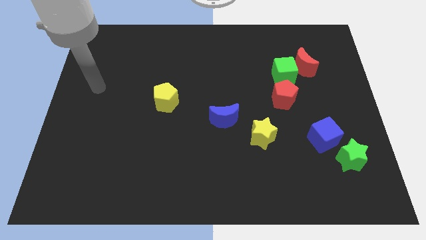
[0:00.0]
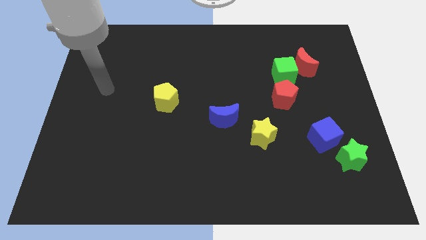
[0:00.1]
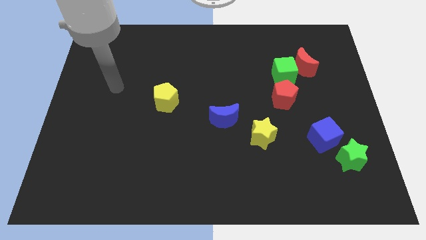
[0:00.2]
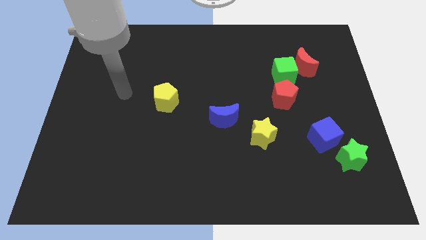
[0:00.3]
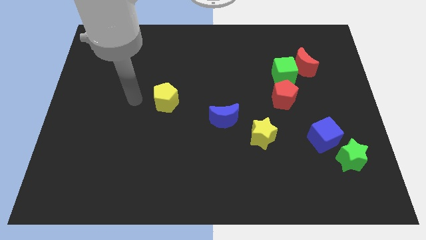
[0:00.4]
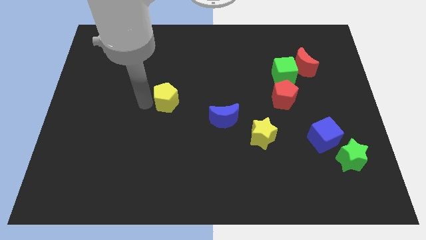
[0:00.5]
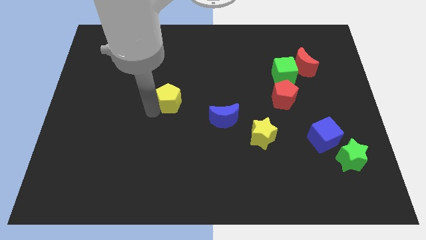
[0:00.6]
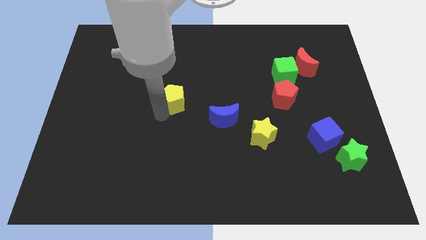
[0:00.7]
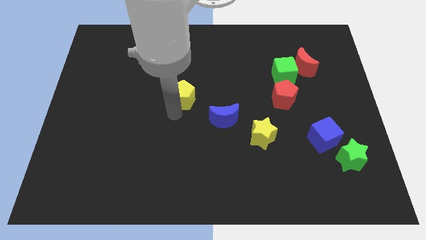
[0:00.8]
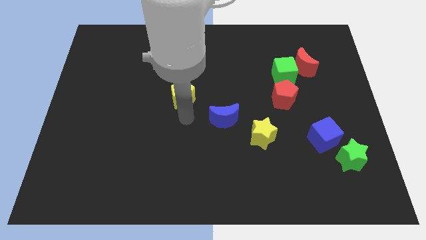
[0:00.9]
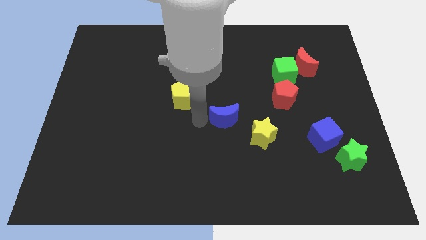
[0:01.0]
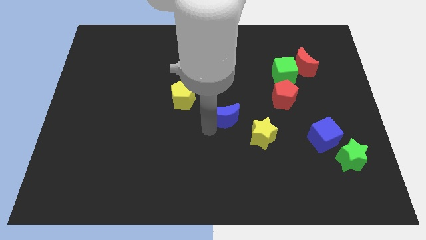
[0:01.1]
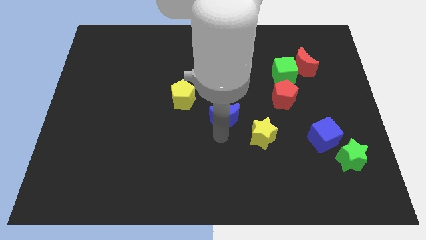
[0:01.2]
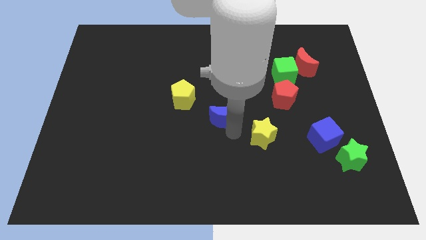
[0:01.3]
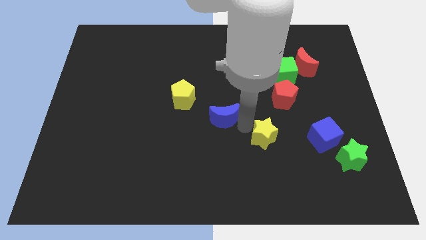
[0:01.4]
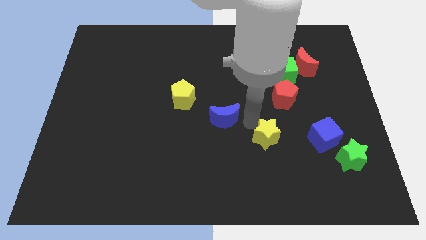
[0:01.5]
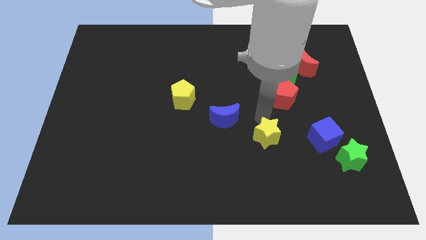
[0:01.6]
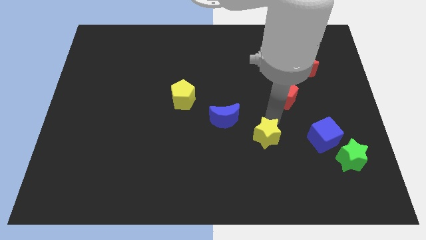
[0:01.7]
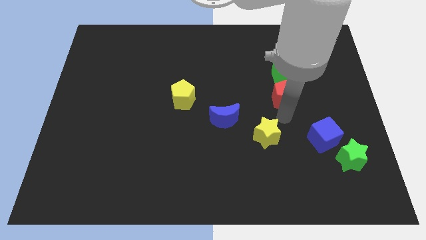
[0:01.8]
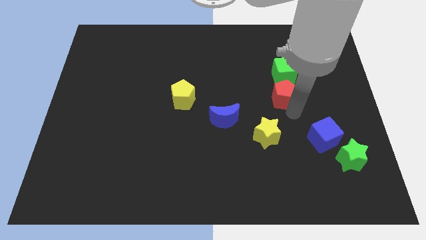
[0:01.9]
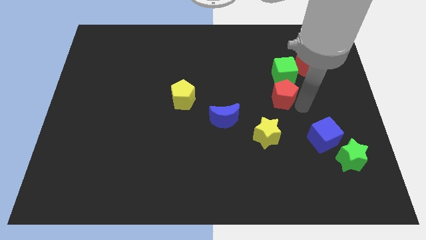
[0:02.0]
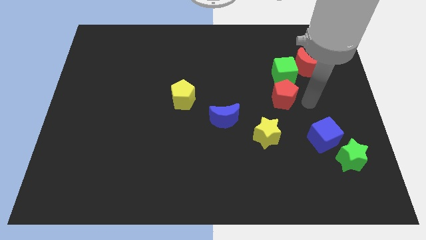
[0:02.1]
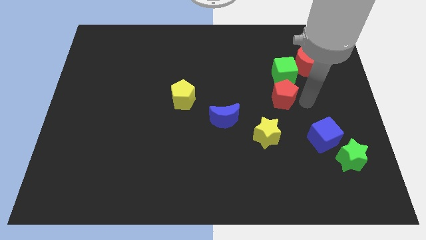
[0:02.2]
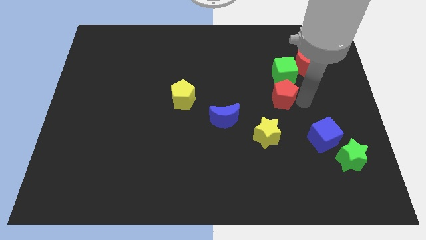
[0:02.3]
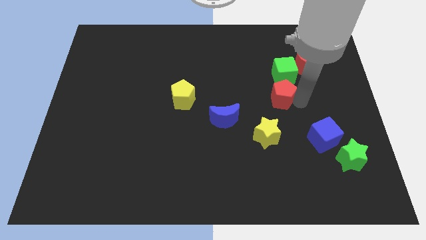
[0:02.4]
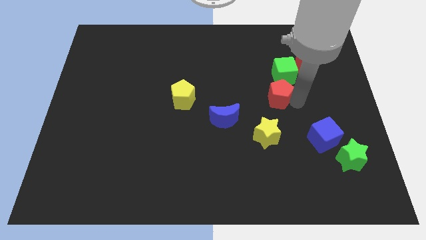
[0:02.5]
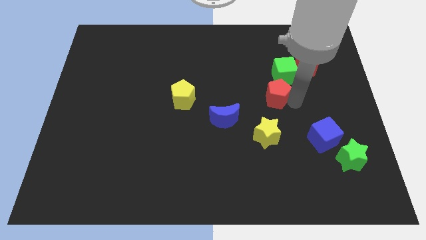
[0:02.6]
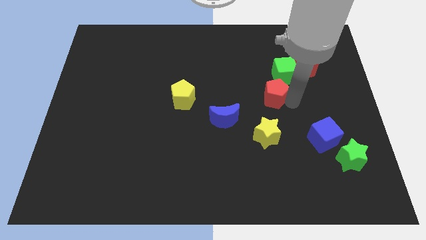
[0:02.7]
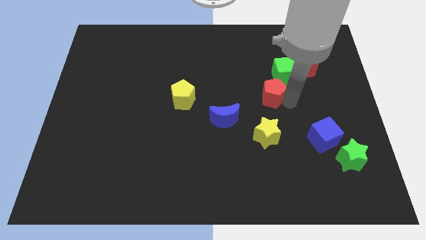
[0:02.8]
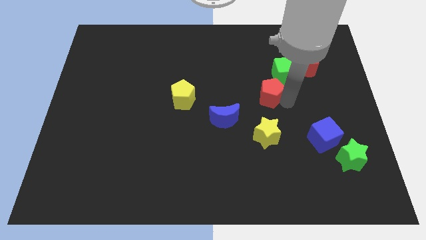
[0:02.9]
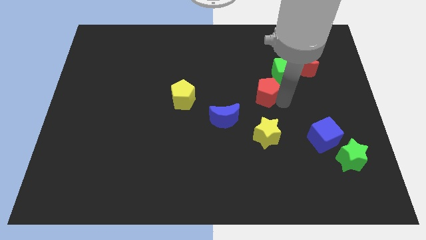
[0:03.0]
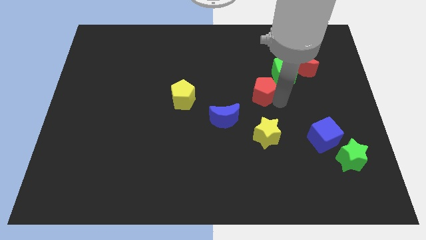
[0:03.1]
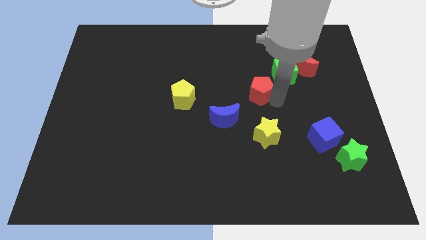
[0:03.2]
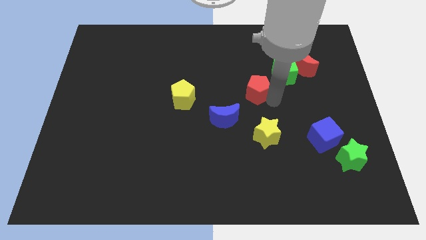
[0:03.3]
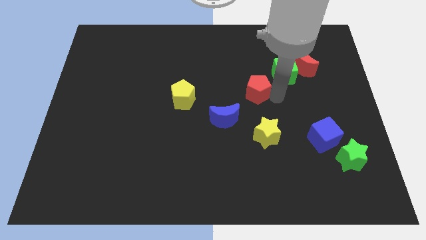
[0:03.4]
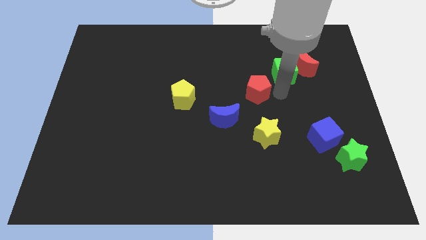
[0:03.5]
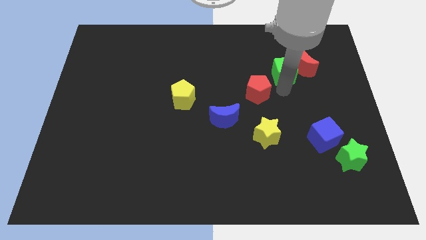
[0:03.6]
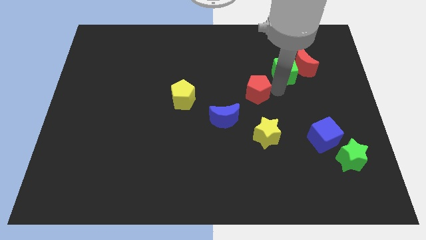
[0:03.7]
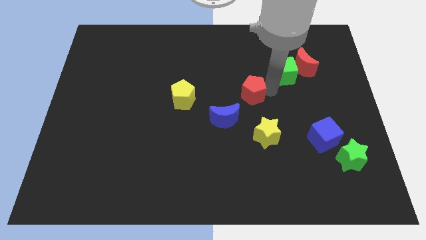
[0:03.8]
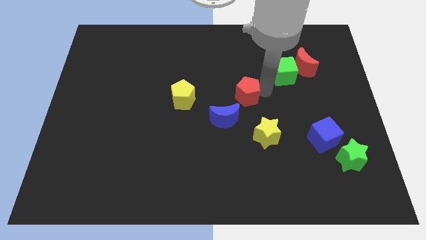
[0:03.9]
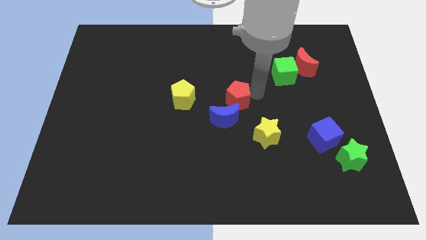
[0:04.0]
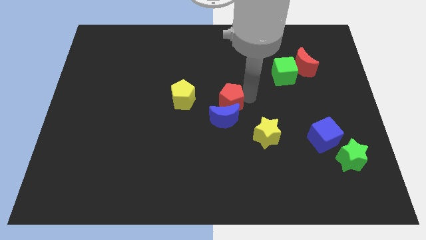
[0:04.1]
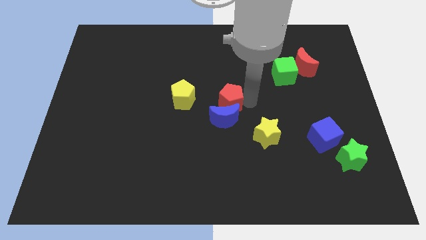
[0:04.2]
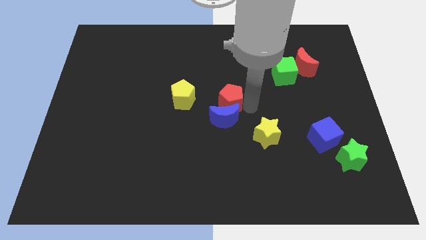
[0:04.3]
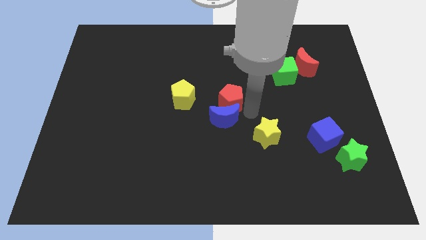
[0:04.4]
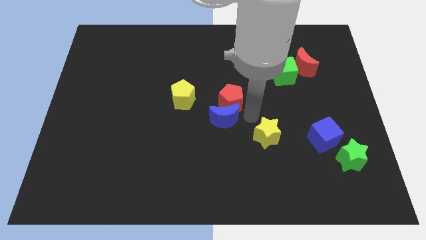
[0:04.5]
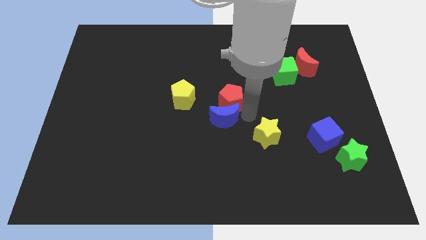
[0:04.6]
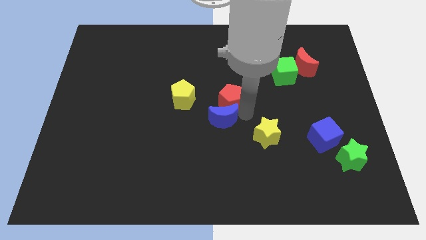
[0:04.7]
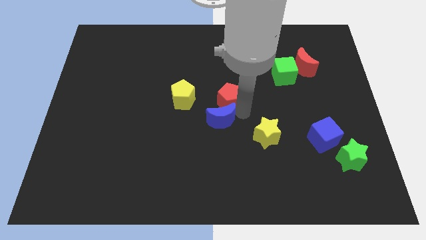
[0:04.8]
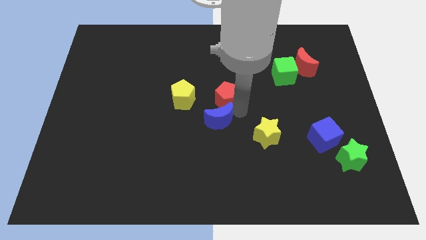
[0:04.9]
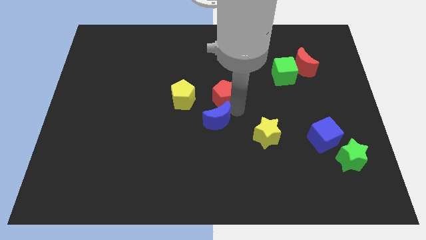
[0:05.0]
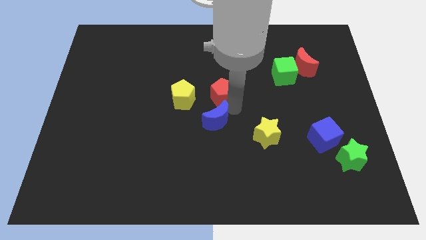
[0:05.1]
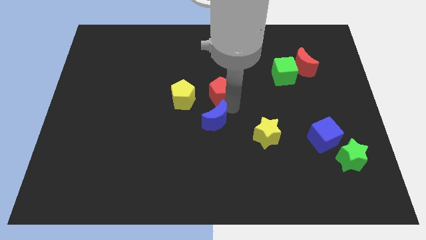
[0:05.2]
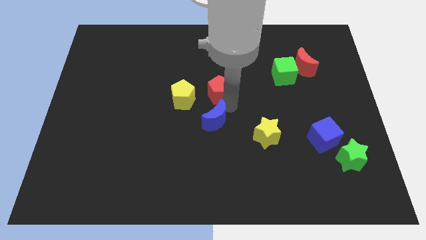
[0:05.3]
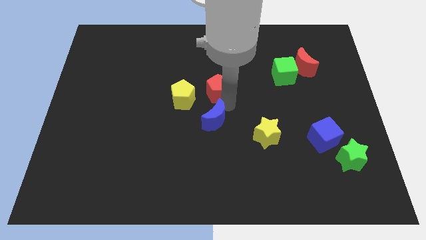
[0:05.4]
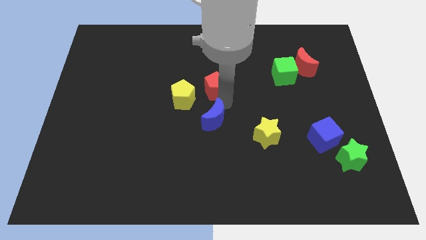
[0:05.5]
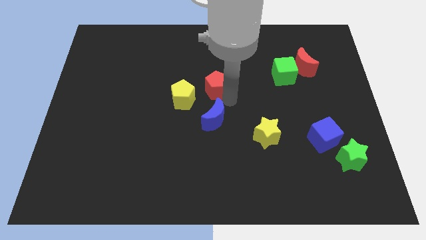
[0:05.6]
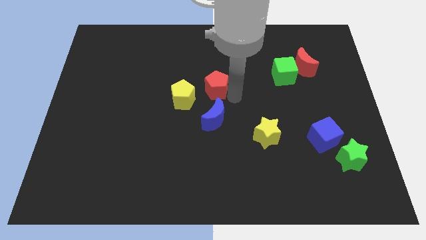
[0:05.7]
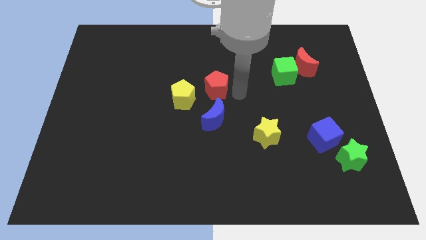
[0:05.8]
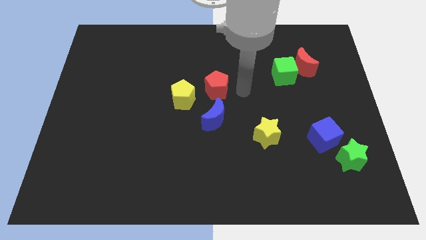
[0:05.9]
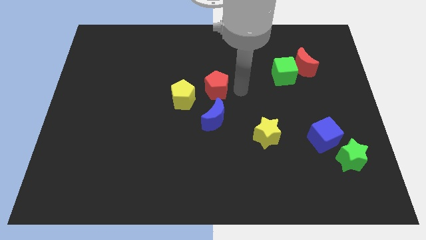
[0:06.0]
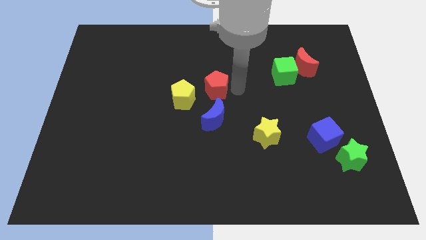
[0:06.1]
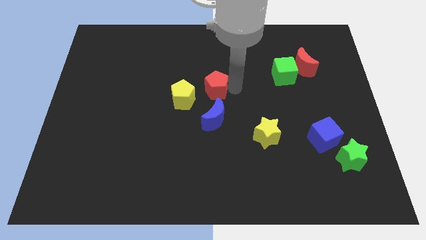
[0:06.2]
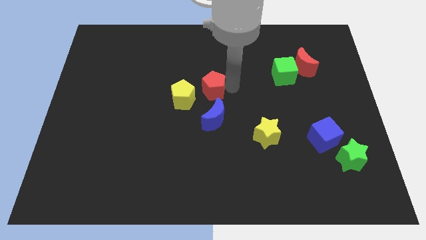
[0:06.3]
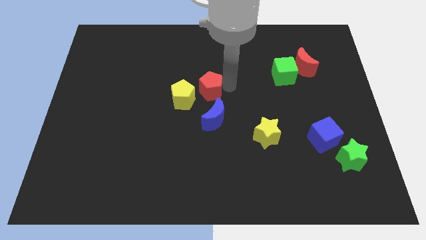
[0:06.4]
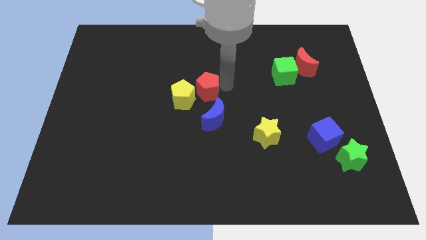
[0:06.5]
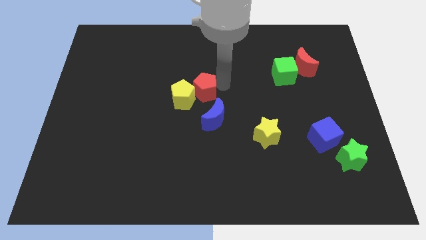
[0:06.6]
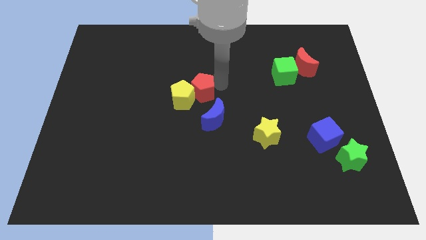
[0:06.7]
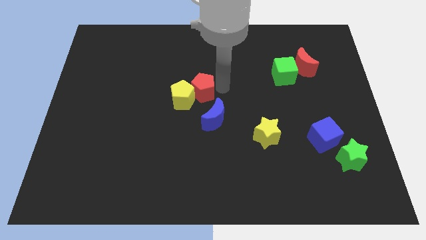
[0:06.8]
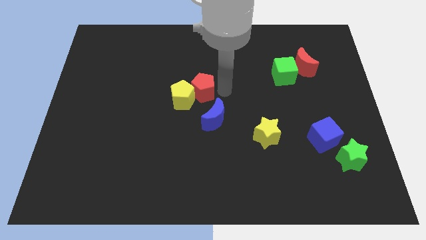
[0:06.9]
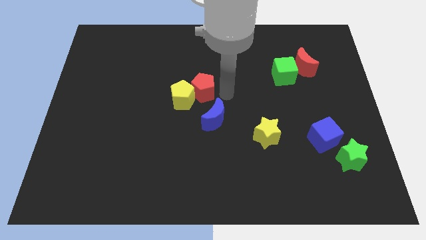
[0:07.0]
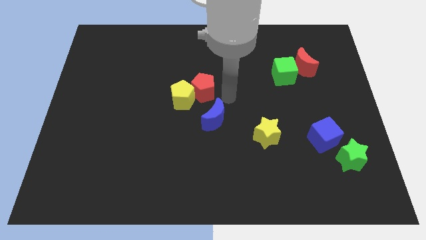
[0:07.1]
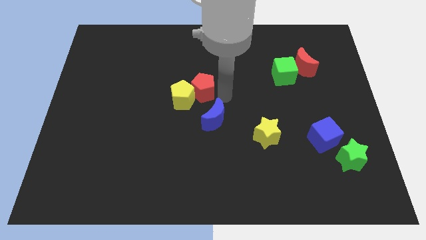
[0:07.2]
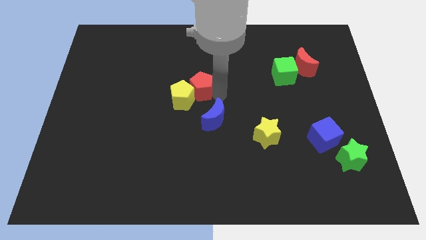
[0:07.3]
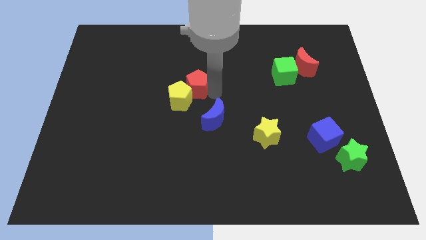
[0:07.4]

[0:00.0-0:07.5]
slide the red pentagon left
